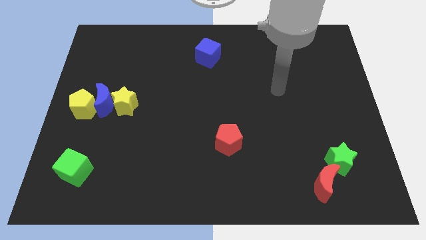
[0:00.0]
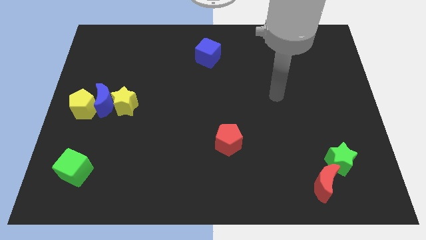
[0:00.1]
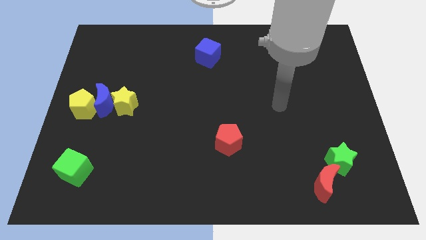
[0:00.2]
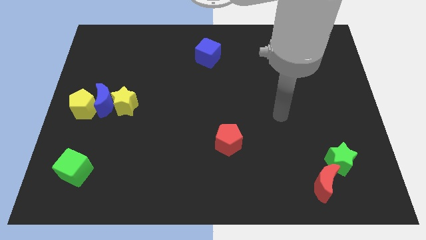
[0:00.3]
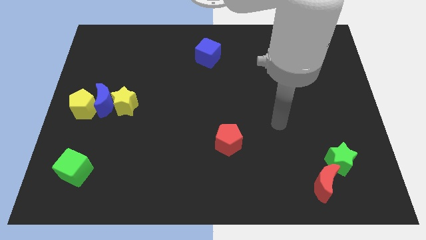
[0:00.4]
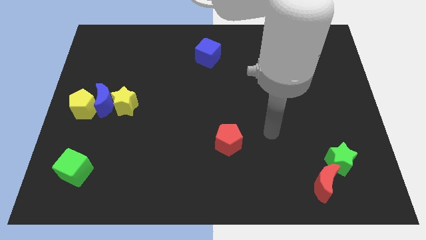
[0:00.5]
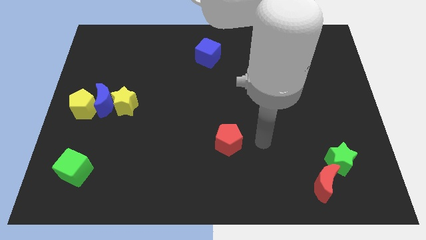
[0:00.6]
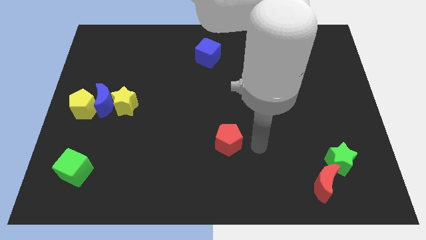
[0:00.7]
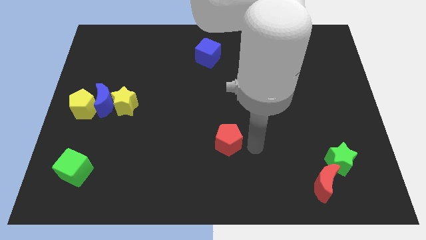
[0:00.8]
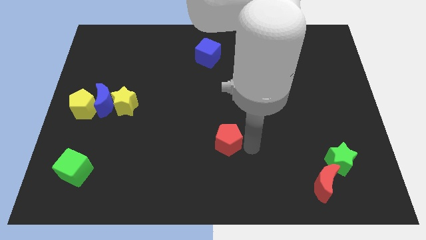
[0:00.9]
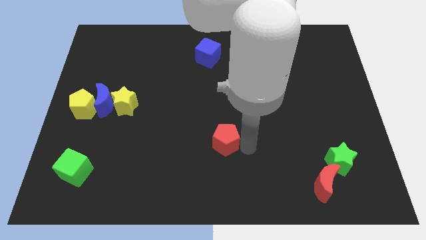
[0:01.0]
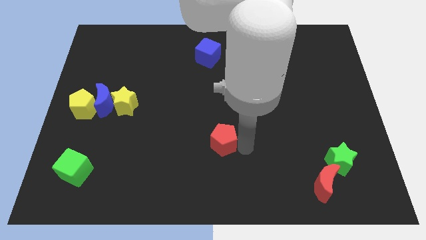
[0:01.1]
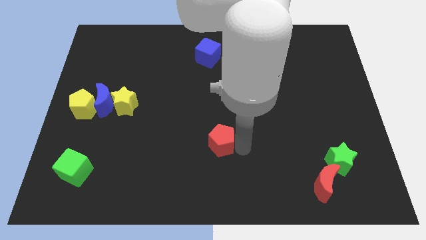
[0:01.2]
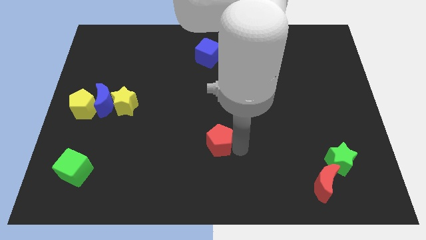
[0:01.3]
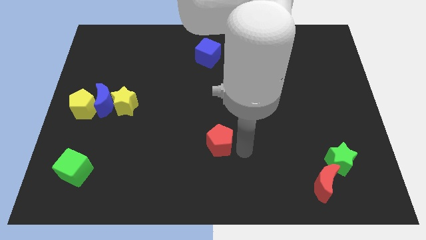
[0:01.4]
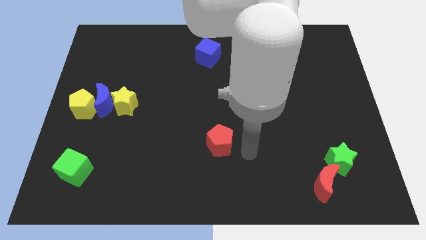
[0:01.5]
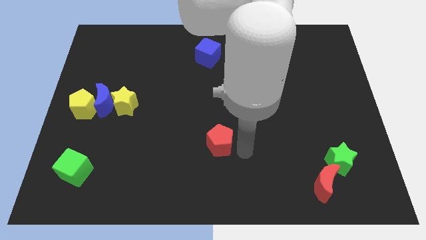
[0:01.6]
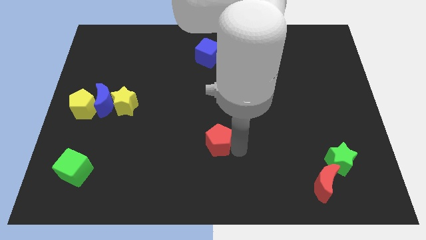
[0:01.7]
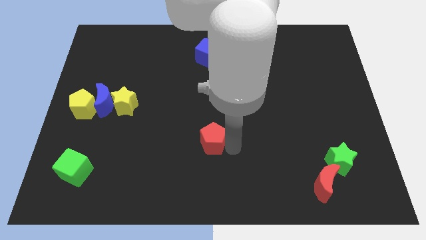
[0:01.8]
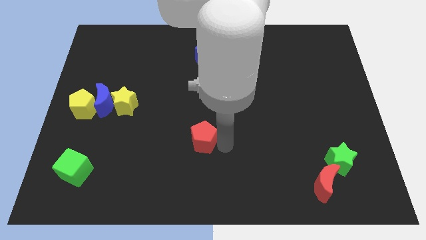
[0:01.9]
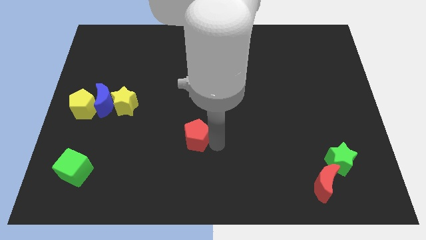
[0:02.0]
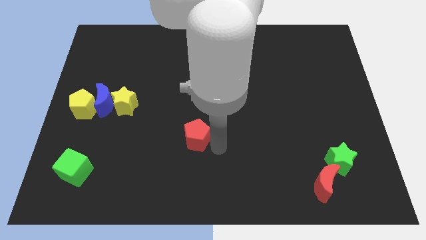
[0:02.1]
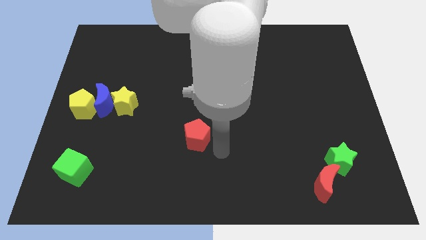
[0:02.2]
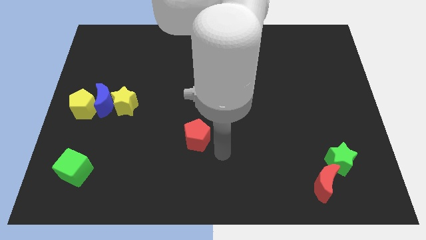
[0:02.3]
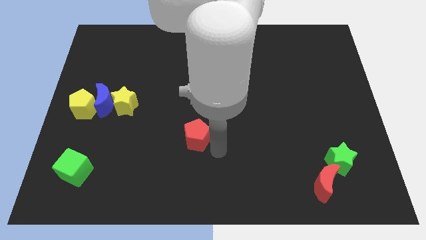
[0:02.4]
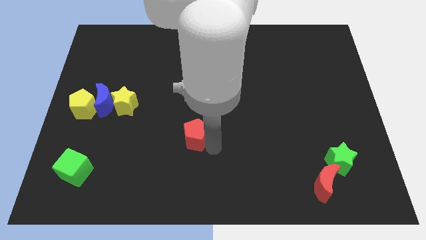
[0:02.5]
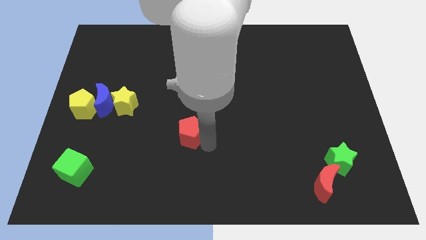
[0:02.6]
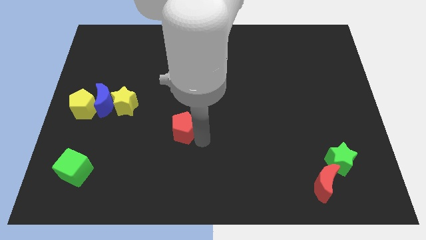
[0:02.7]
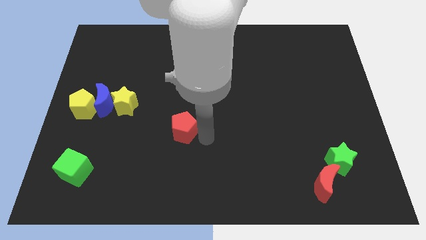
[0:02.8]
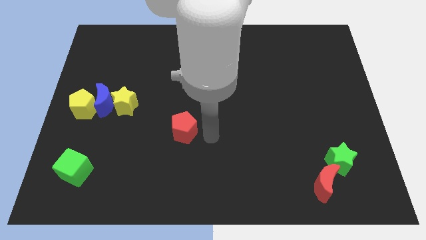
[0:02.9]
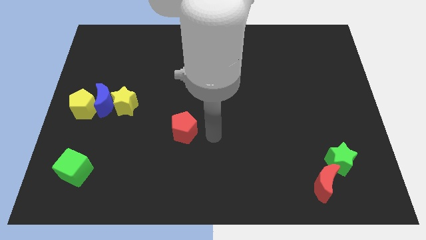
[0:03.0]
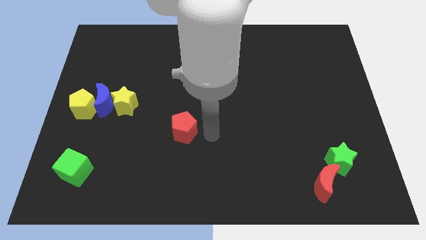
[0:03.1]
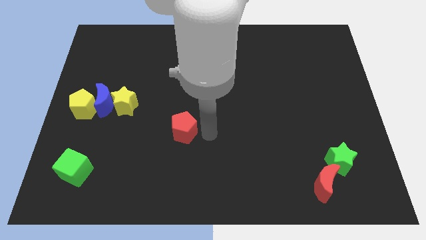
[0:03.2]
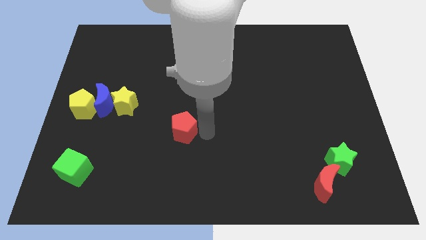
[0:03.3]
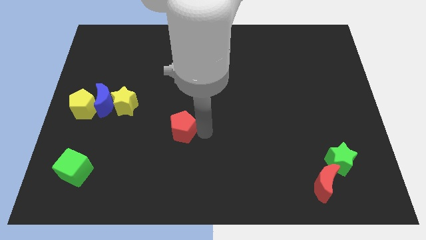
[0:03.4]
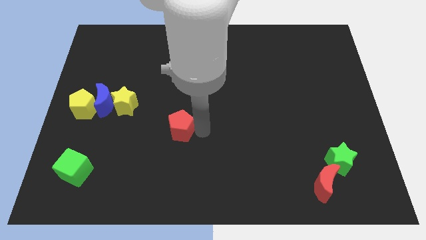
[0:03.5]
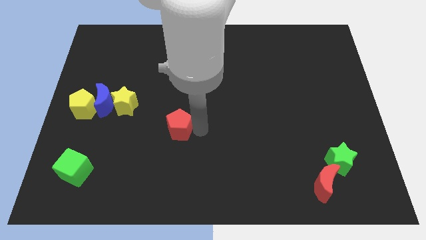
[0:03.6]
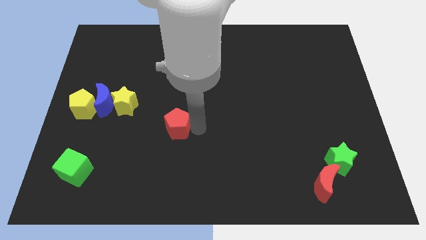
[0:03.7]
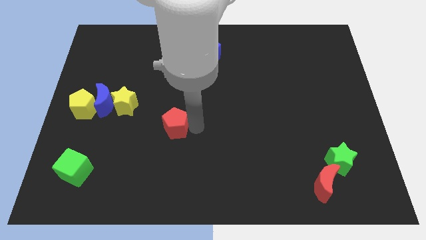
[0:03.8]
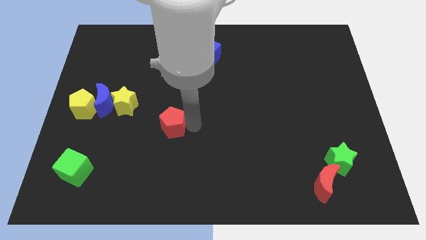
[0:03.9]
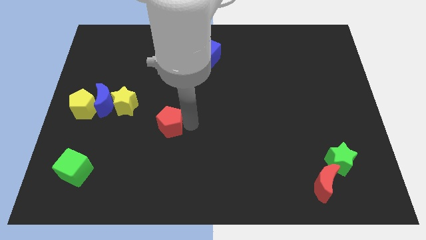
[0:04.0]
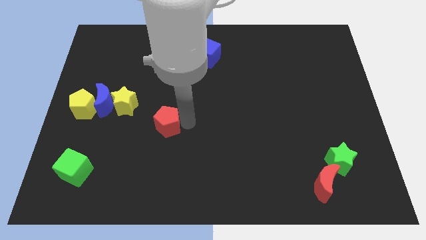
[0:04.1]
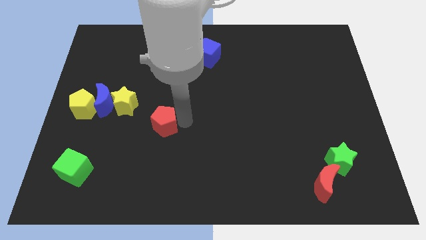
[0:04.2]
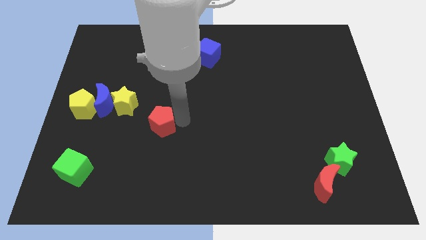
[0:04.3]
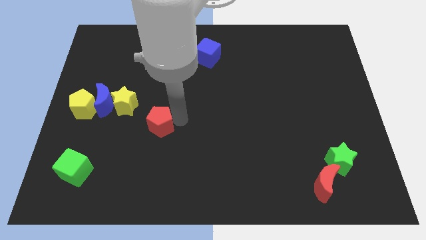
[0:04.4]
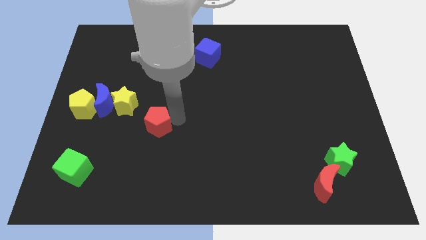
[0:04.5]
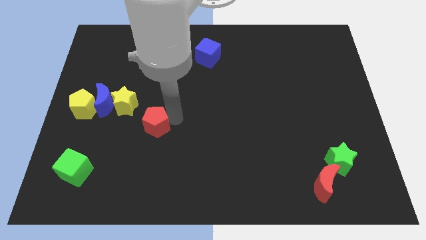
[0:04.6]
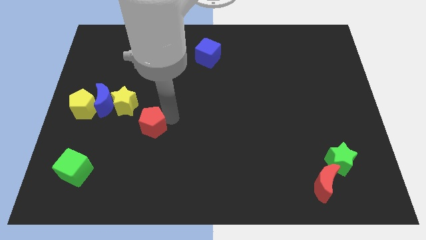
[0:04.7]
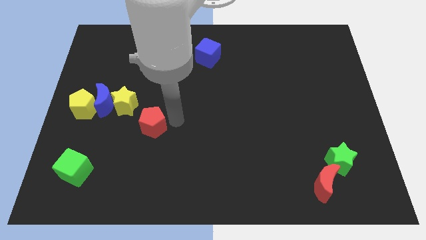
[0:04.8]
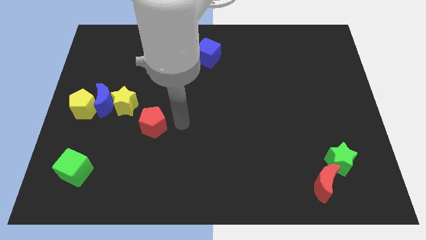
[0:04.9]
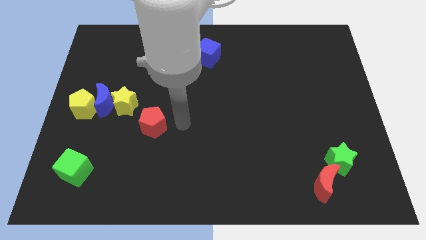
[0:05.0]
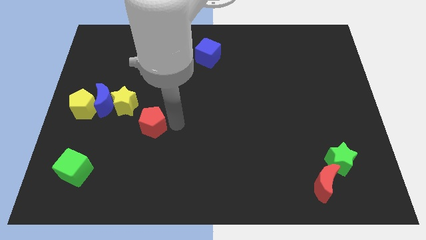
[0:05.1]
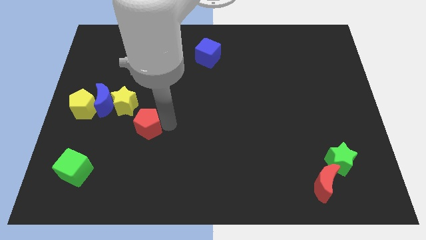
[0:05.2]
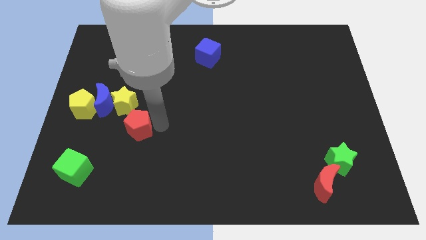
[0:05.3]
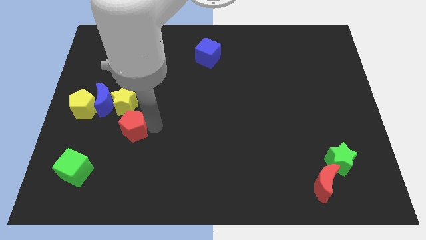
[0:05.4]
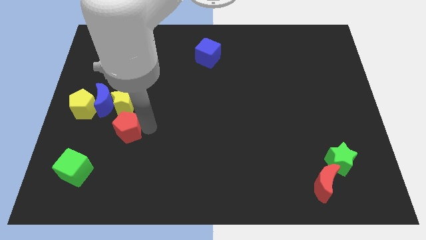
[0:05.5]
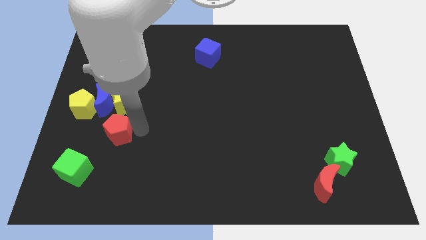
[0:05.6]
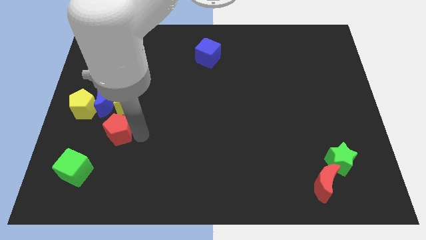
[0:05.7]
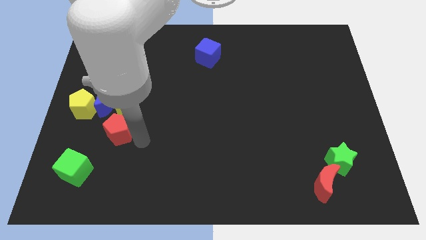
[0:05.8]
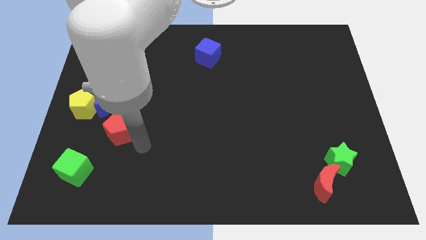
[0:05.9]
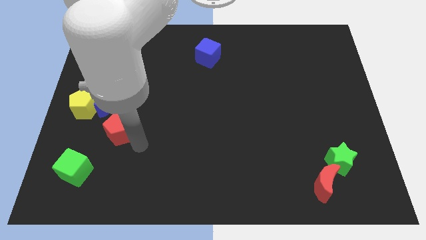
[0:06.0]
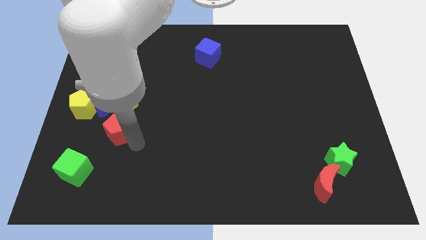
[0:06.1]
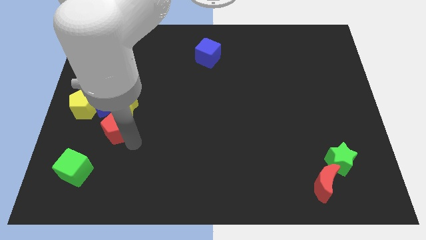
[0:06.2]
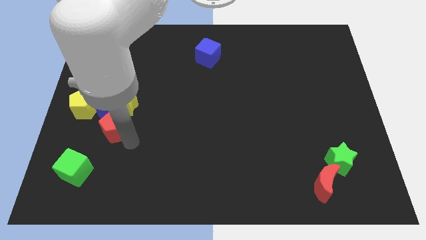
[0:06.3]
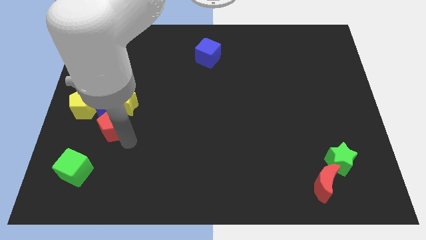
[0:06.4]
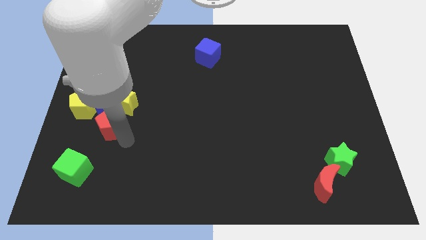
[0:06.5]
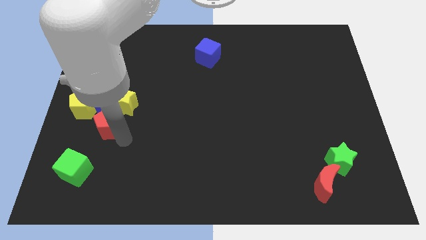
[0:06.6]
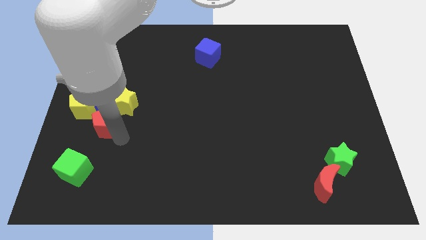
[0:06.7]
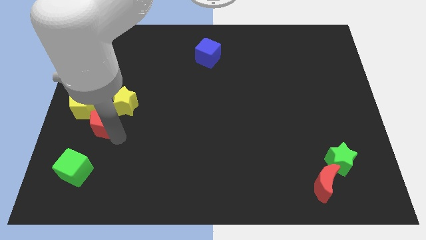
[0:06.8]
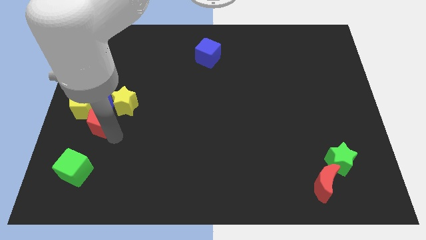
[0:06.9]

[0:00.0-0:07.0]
slide the red pentagon towards the blue moon
